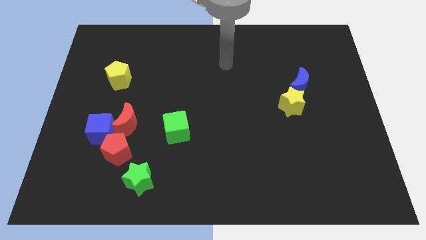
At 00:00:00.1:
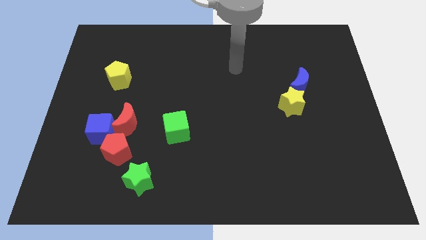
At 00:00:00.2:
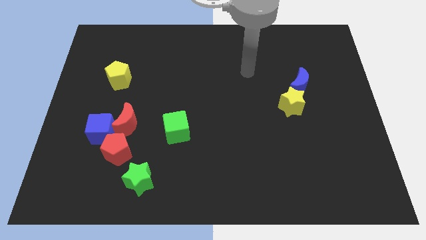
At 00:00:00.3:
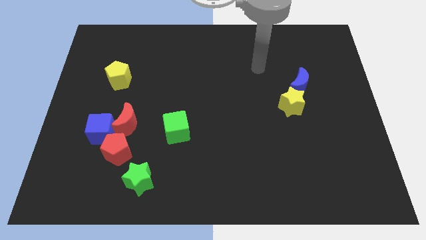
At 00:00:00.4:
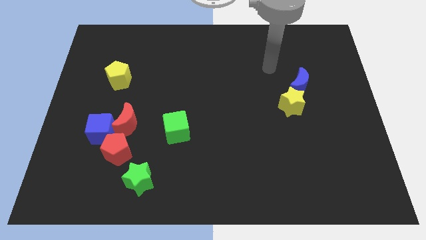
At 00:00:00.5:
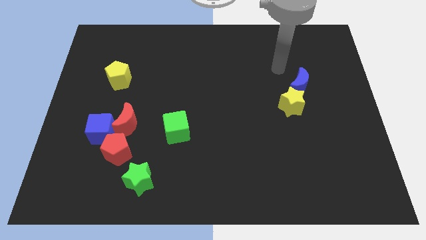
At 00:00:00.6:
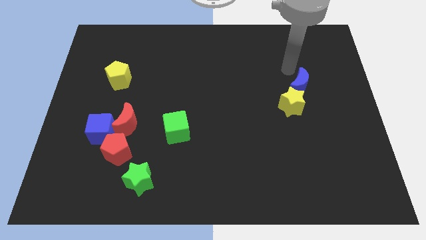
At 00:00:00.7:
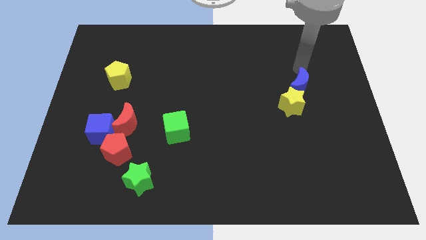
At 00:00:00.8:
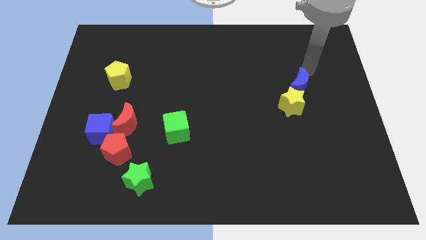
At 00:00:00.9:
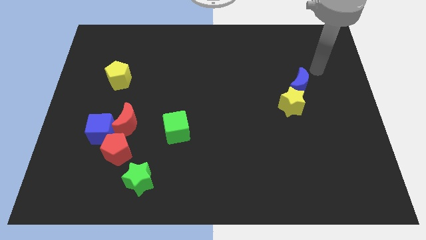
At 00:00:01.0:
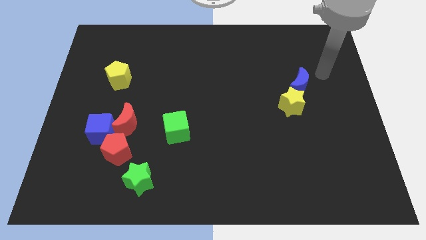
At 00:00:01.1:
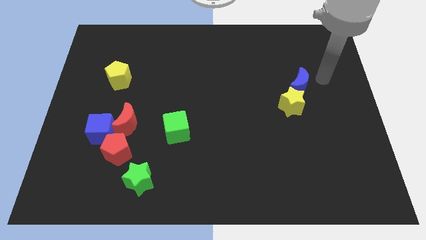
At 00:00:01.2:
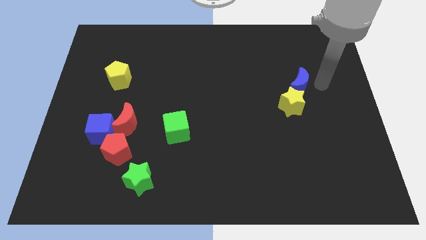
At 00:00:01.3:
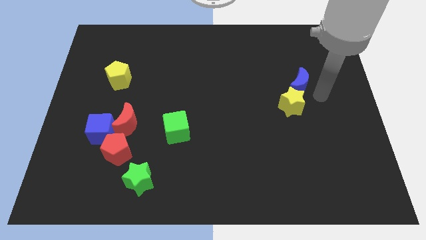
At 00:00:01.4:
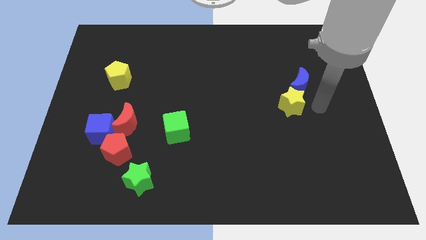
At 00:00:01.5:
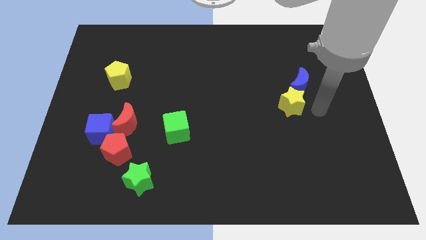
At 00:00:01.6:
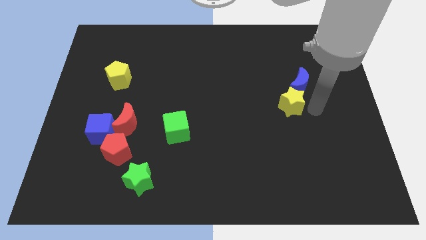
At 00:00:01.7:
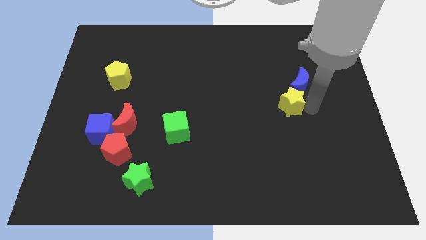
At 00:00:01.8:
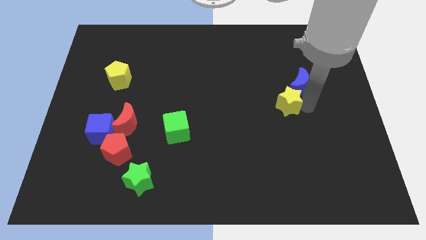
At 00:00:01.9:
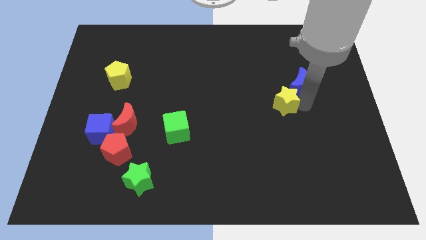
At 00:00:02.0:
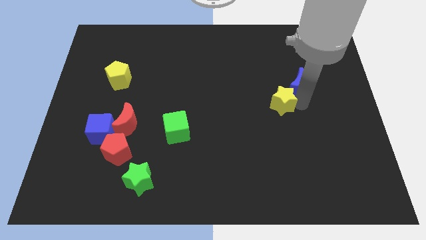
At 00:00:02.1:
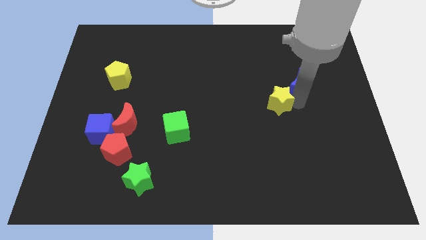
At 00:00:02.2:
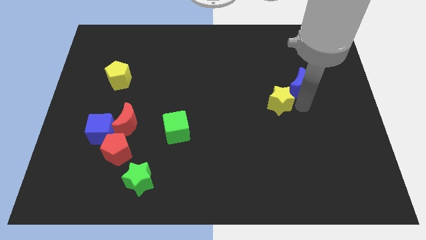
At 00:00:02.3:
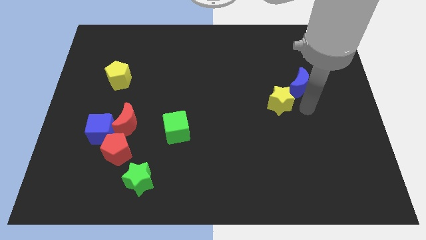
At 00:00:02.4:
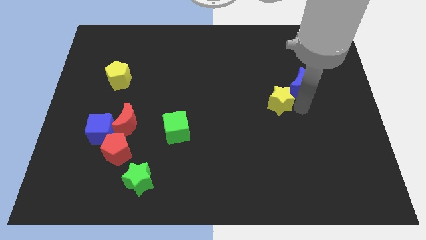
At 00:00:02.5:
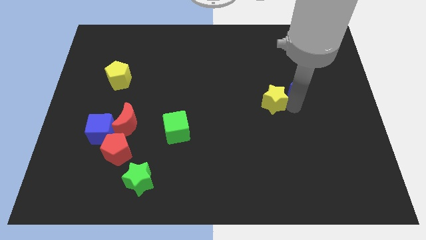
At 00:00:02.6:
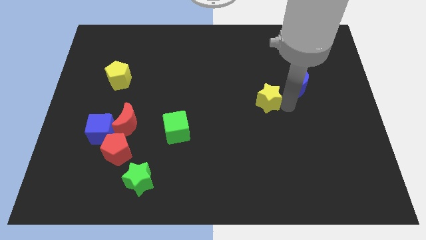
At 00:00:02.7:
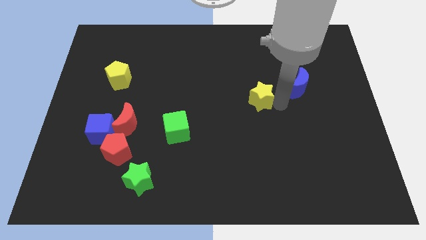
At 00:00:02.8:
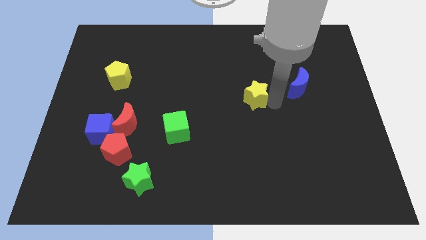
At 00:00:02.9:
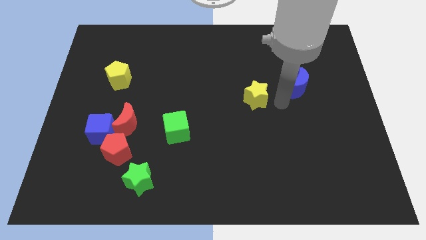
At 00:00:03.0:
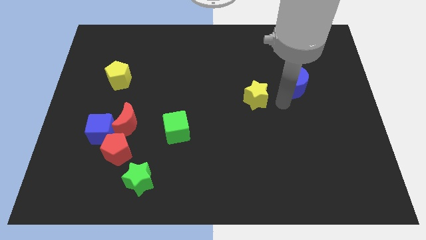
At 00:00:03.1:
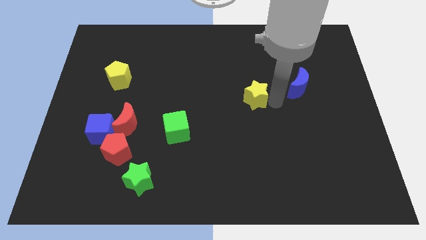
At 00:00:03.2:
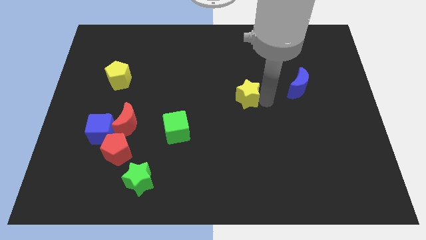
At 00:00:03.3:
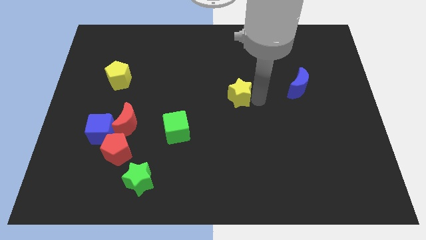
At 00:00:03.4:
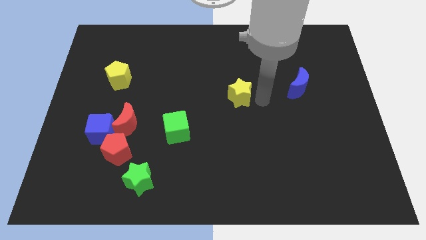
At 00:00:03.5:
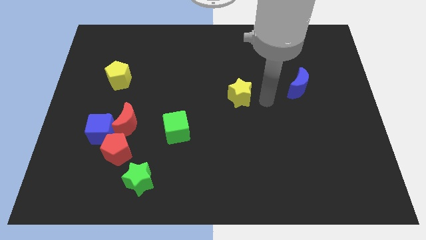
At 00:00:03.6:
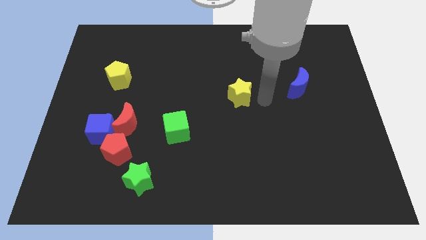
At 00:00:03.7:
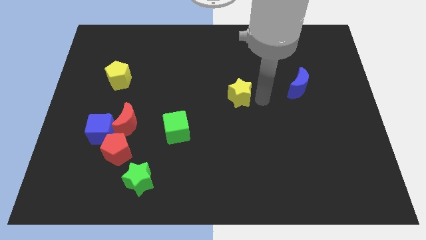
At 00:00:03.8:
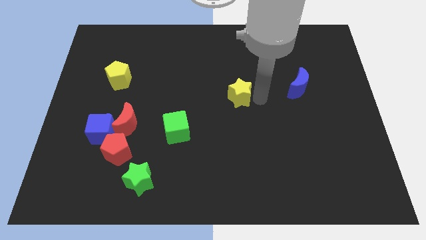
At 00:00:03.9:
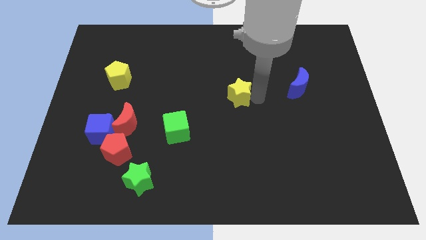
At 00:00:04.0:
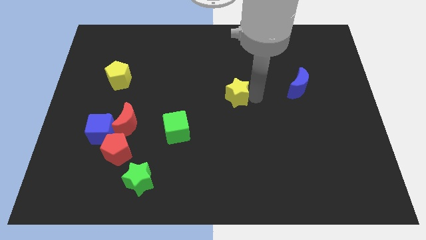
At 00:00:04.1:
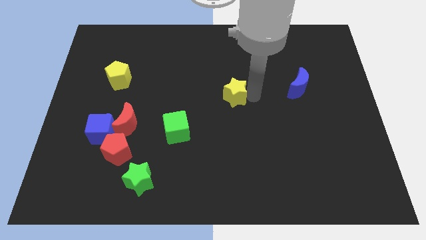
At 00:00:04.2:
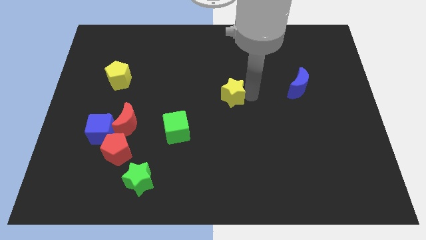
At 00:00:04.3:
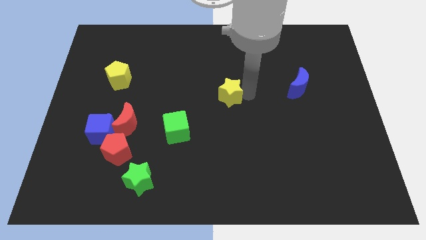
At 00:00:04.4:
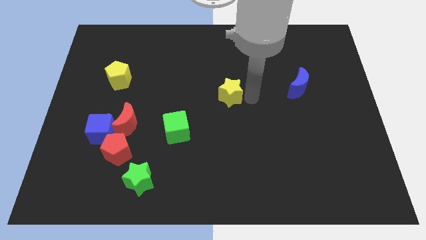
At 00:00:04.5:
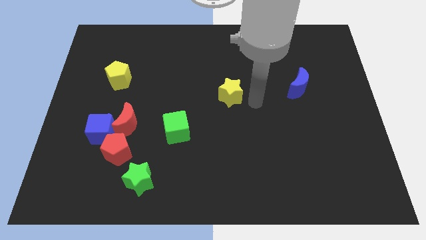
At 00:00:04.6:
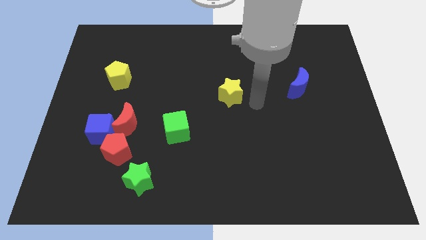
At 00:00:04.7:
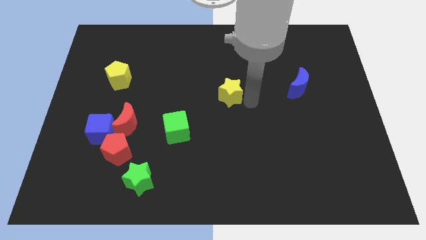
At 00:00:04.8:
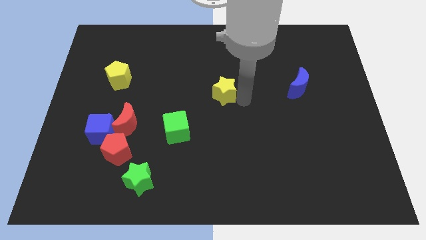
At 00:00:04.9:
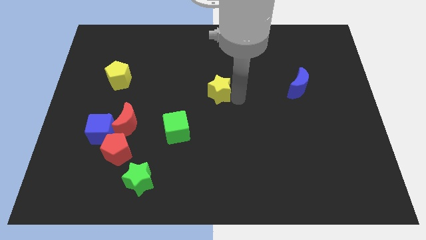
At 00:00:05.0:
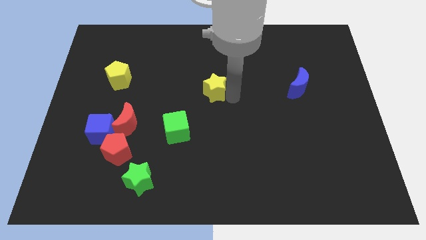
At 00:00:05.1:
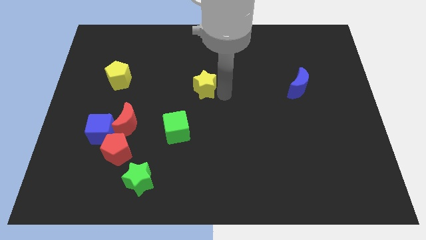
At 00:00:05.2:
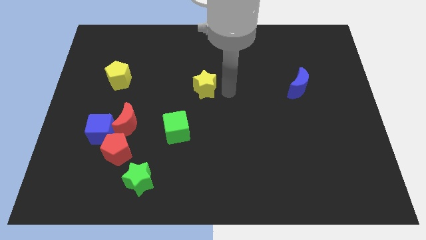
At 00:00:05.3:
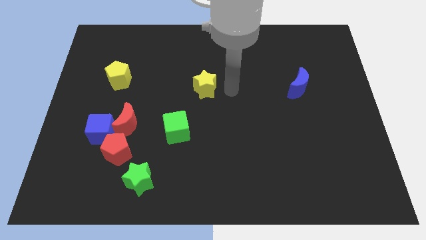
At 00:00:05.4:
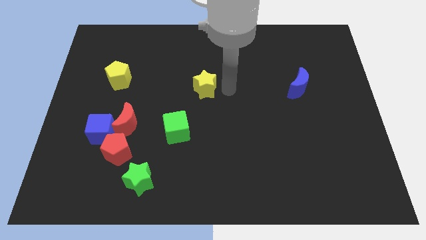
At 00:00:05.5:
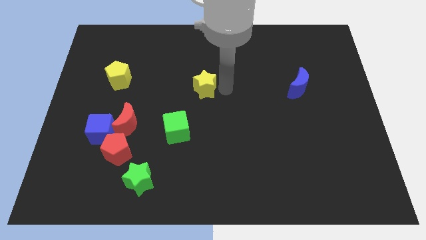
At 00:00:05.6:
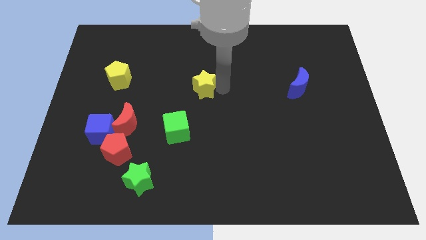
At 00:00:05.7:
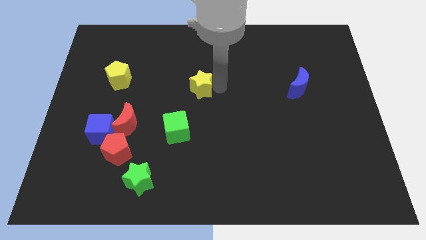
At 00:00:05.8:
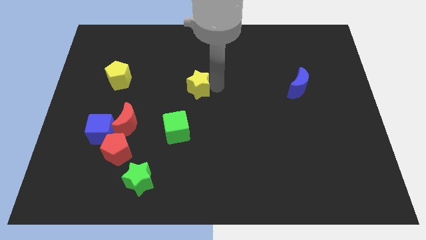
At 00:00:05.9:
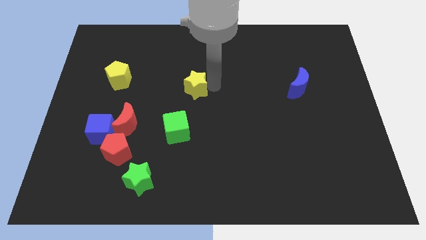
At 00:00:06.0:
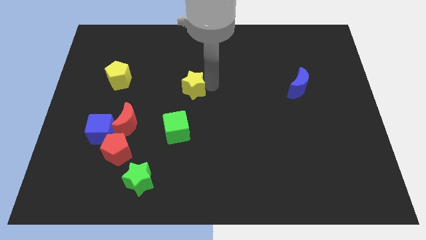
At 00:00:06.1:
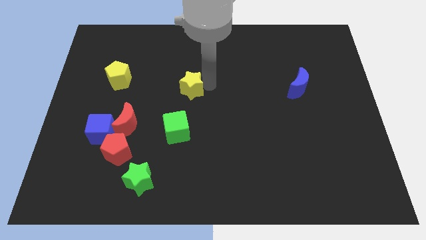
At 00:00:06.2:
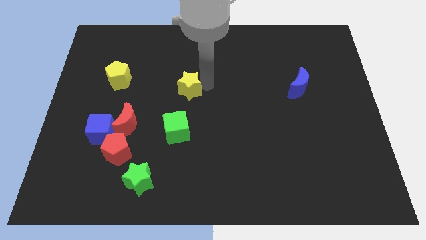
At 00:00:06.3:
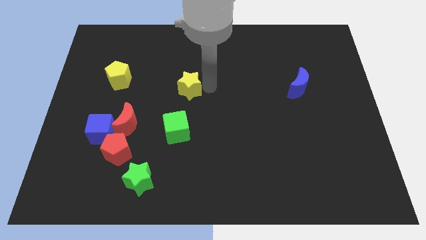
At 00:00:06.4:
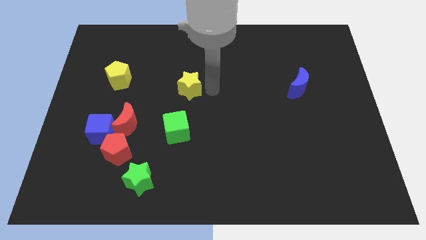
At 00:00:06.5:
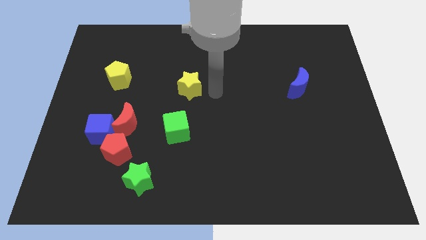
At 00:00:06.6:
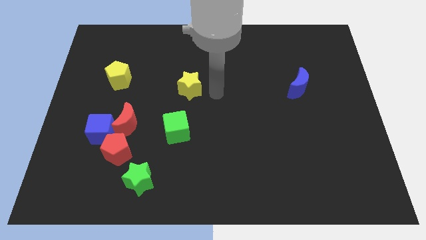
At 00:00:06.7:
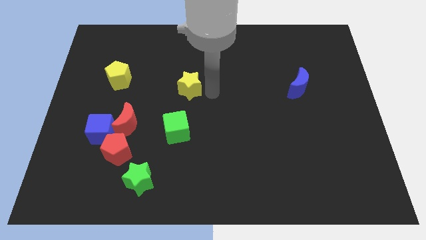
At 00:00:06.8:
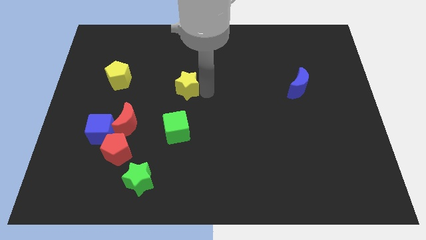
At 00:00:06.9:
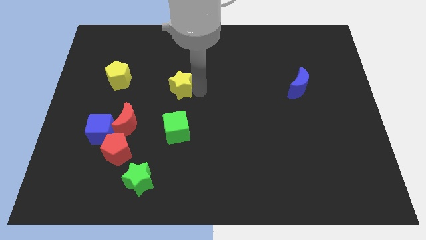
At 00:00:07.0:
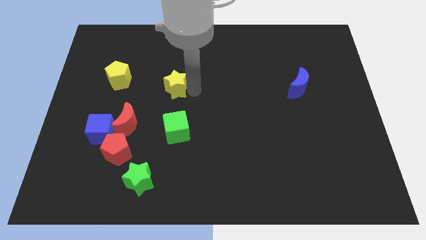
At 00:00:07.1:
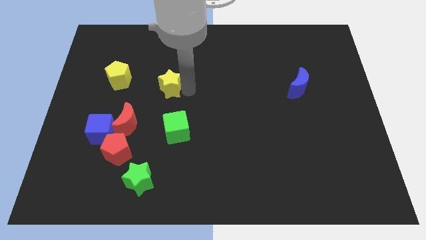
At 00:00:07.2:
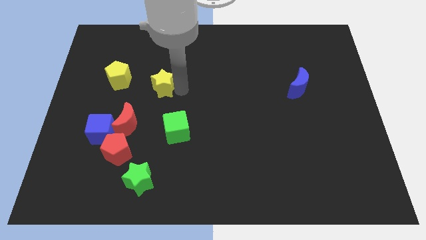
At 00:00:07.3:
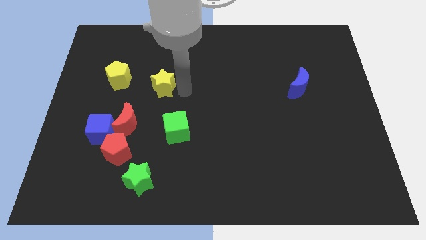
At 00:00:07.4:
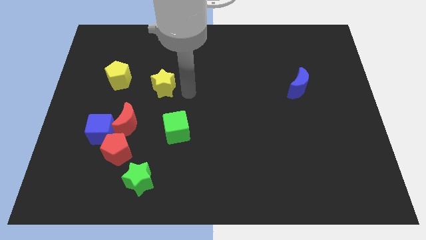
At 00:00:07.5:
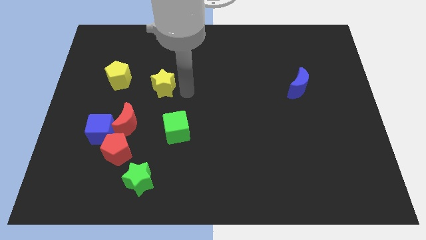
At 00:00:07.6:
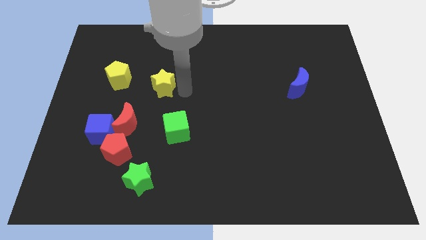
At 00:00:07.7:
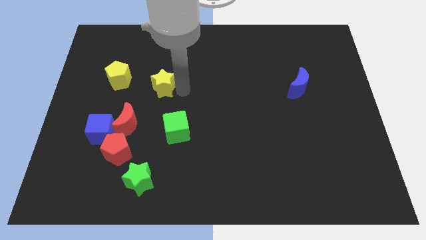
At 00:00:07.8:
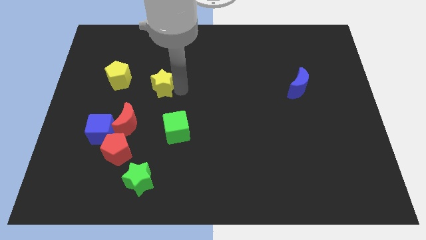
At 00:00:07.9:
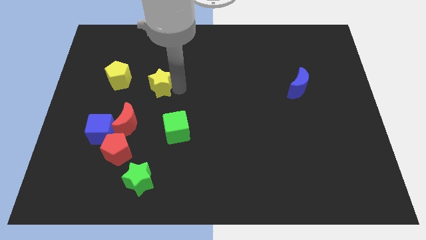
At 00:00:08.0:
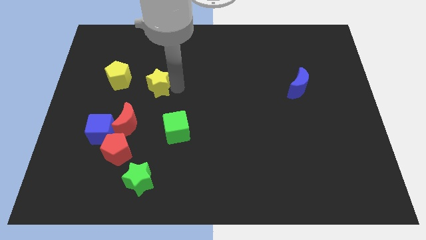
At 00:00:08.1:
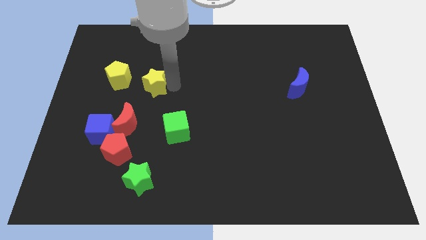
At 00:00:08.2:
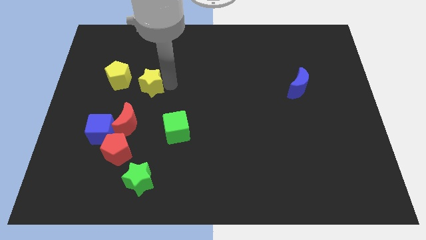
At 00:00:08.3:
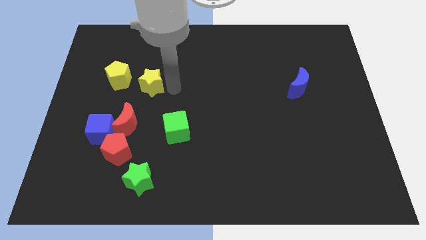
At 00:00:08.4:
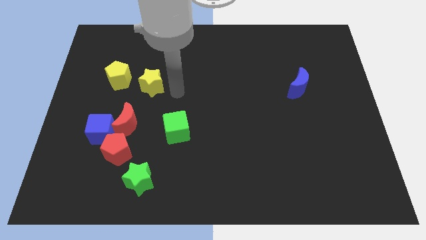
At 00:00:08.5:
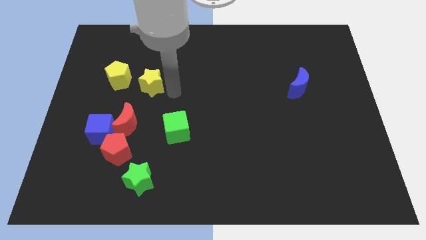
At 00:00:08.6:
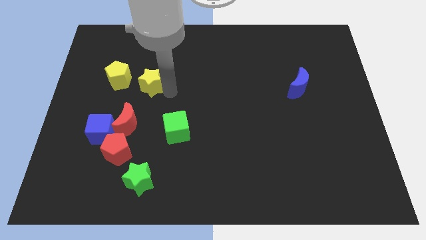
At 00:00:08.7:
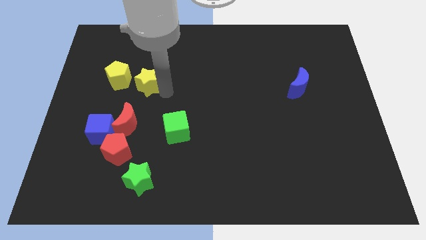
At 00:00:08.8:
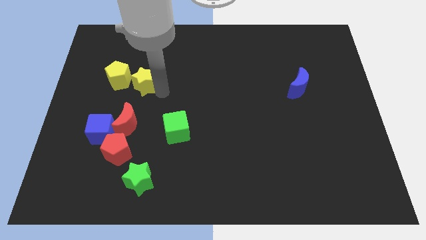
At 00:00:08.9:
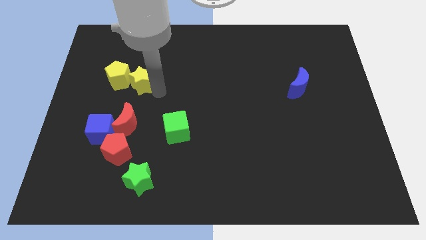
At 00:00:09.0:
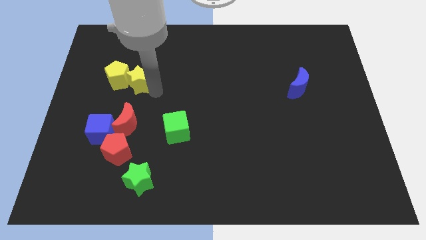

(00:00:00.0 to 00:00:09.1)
move the yellow star to the yellow pentagon
